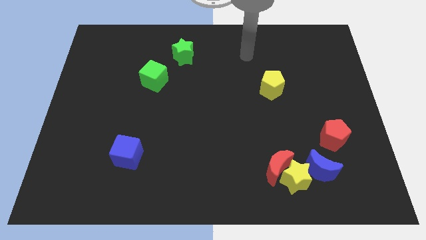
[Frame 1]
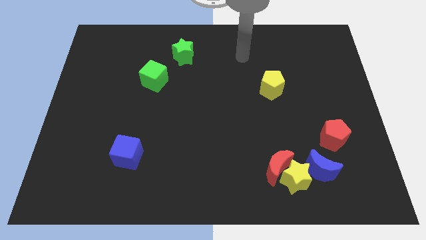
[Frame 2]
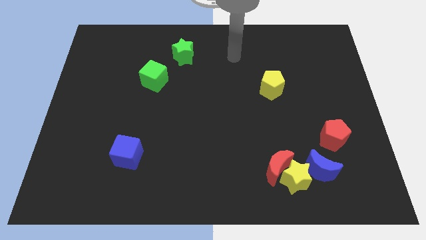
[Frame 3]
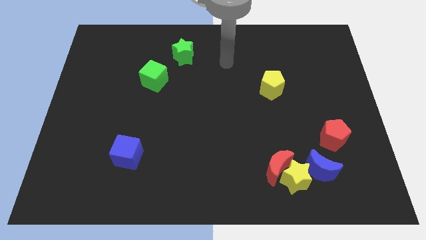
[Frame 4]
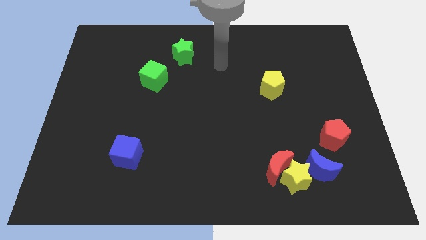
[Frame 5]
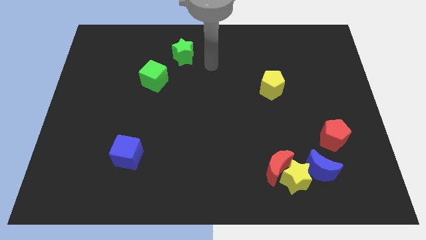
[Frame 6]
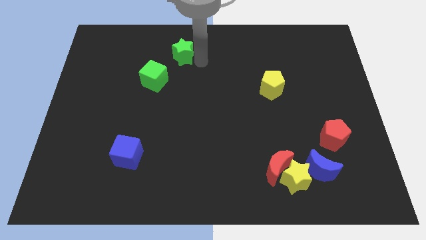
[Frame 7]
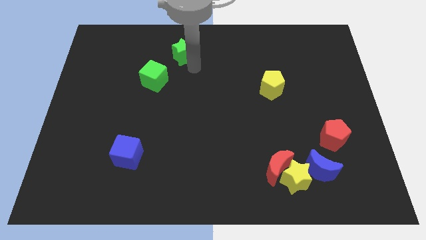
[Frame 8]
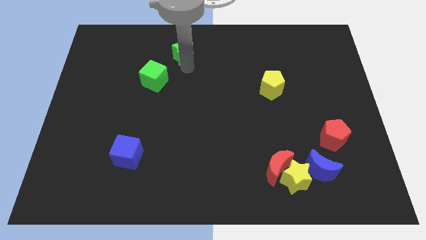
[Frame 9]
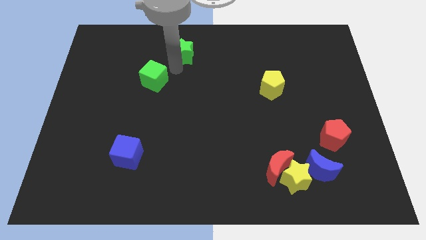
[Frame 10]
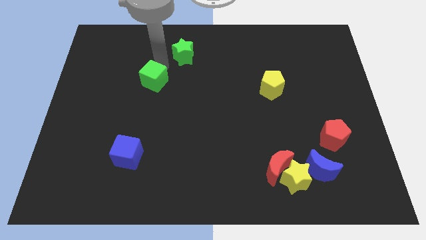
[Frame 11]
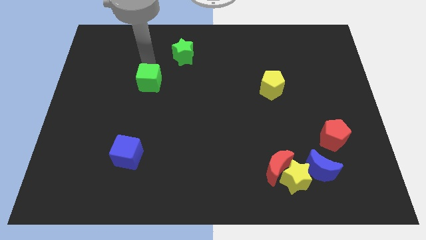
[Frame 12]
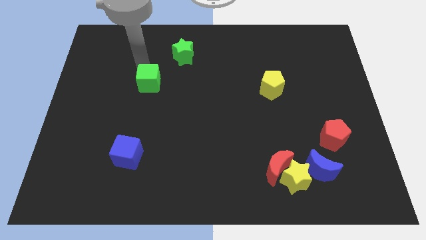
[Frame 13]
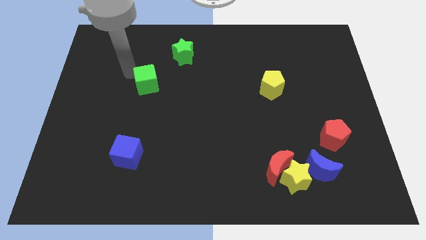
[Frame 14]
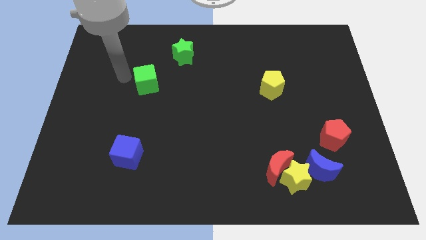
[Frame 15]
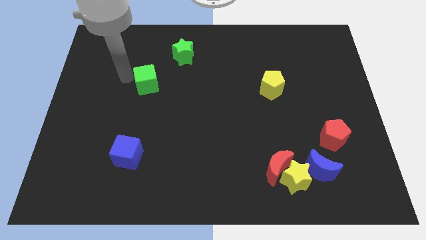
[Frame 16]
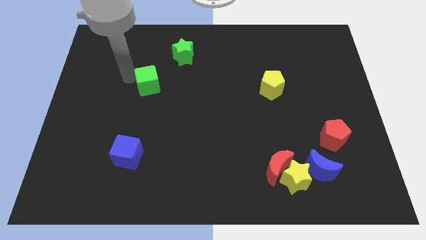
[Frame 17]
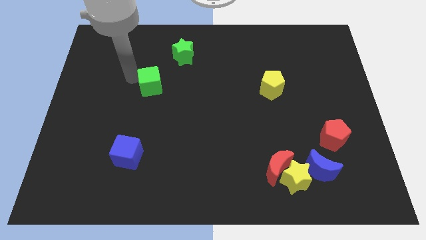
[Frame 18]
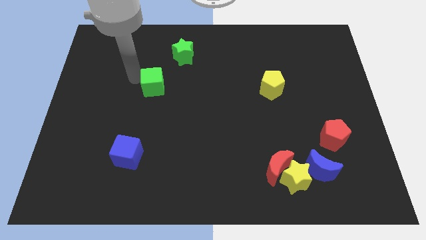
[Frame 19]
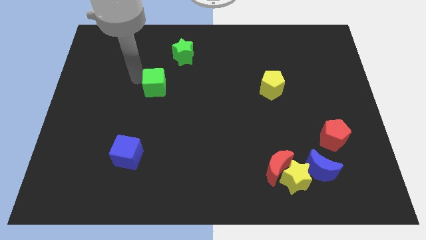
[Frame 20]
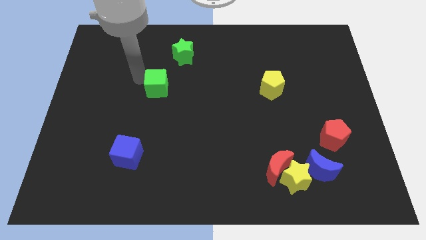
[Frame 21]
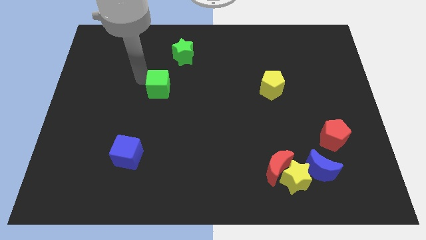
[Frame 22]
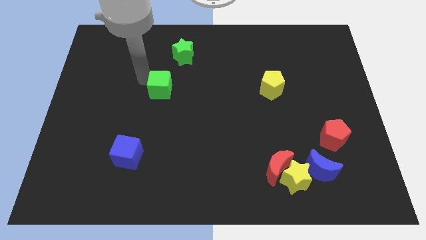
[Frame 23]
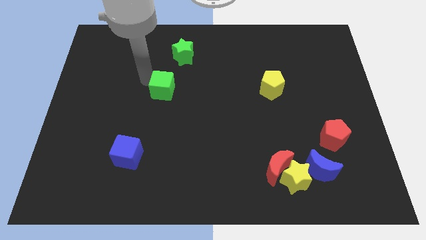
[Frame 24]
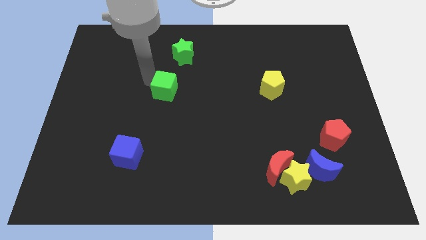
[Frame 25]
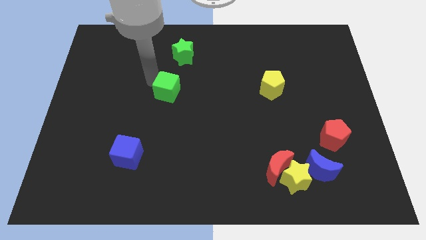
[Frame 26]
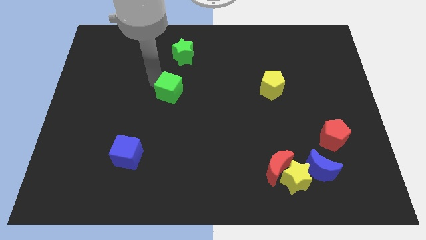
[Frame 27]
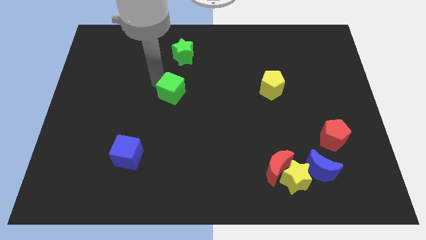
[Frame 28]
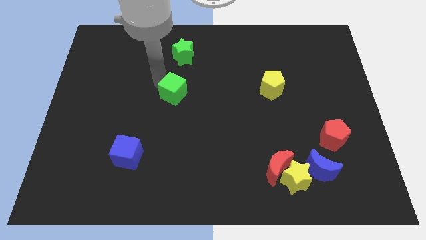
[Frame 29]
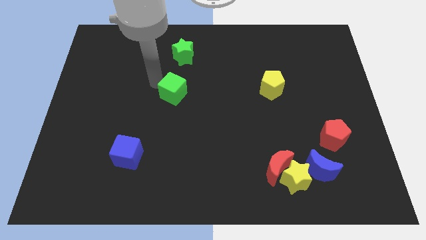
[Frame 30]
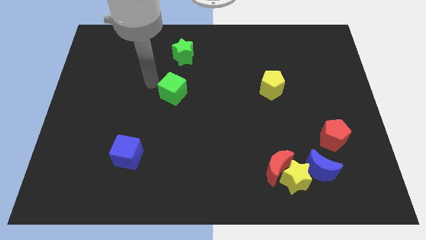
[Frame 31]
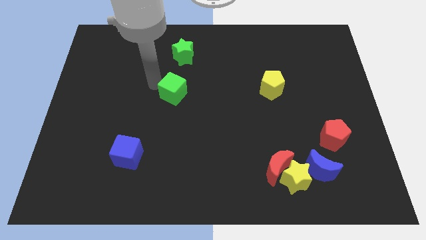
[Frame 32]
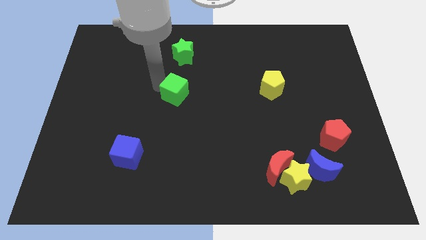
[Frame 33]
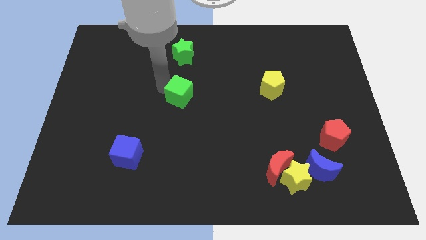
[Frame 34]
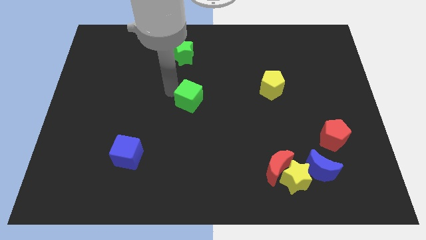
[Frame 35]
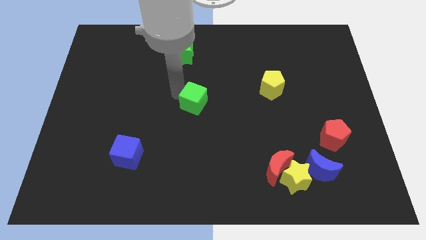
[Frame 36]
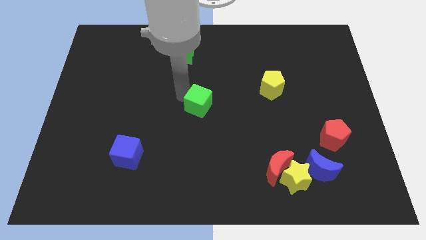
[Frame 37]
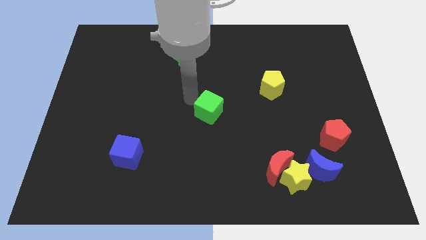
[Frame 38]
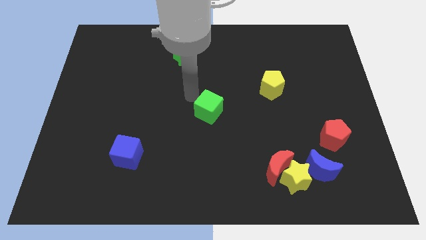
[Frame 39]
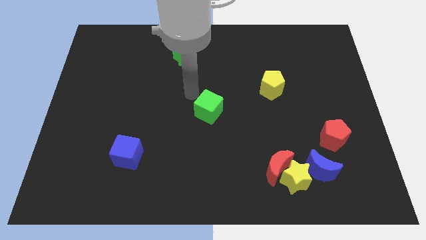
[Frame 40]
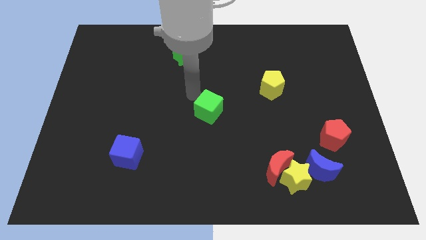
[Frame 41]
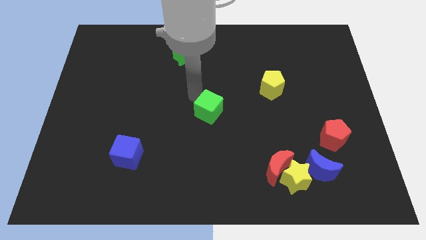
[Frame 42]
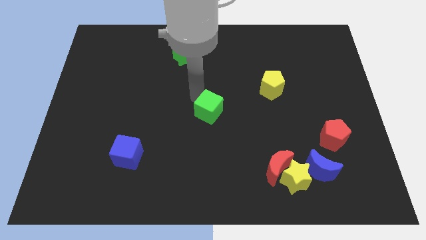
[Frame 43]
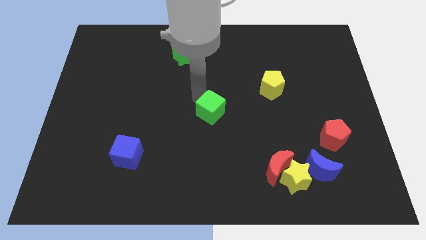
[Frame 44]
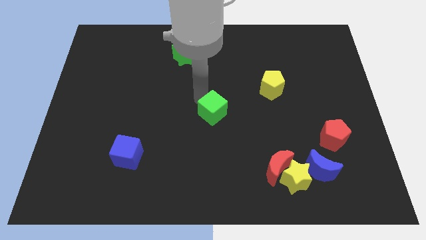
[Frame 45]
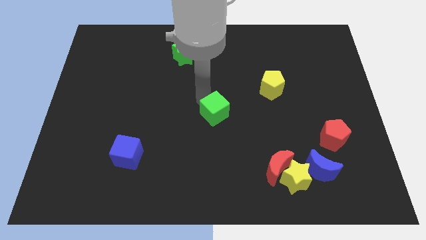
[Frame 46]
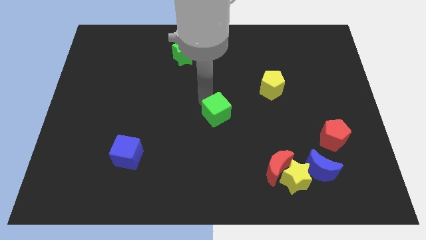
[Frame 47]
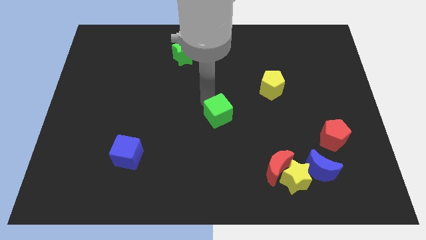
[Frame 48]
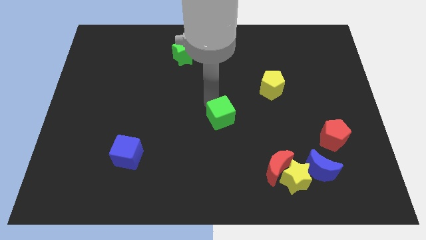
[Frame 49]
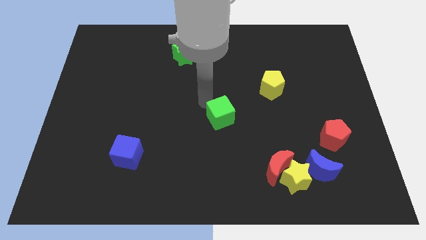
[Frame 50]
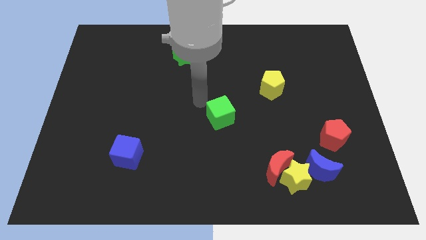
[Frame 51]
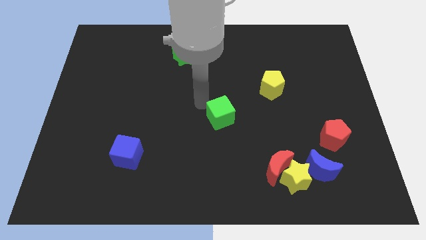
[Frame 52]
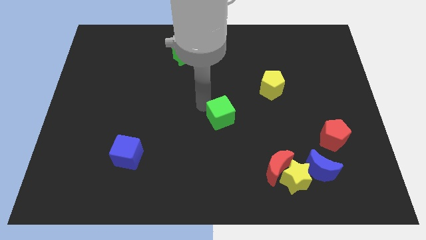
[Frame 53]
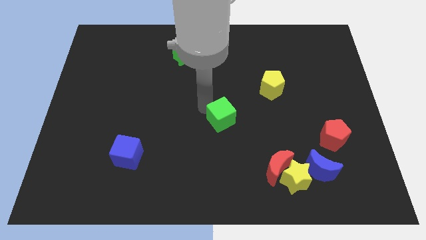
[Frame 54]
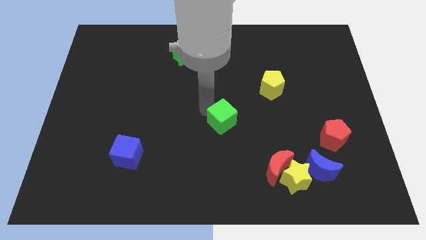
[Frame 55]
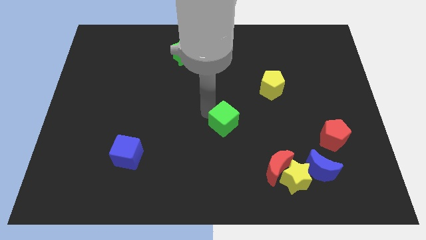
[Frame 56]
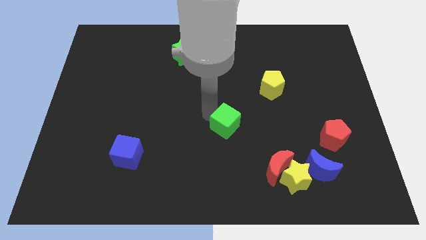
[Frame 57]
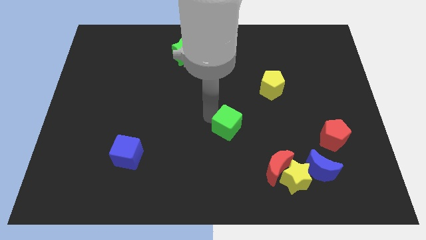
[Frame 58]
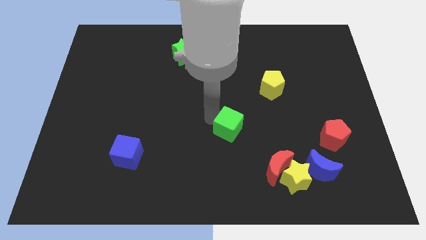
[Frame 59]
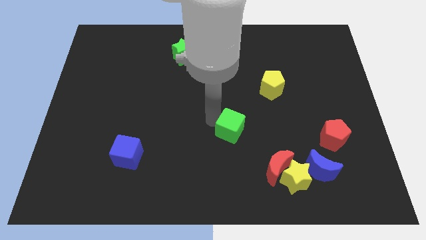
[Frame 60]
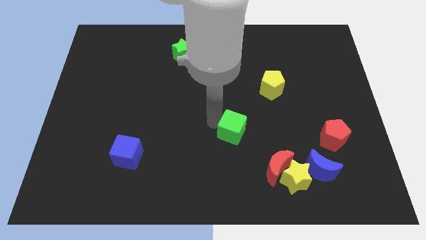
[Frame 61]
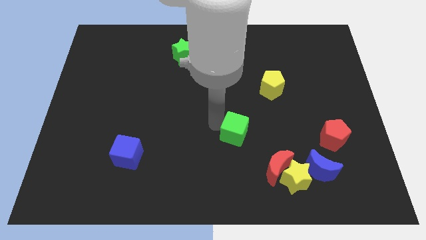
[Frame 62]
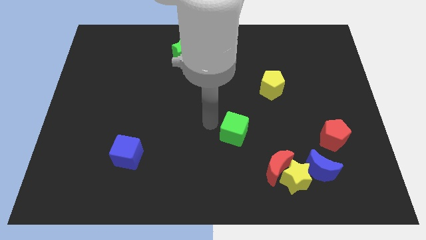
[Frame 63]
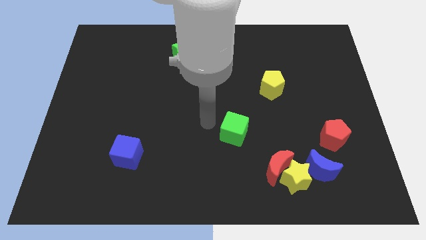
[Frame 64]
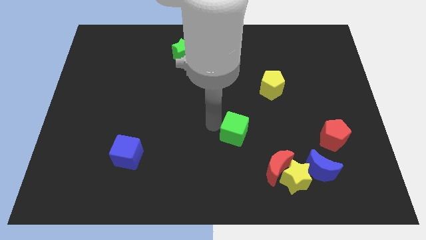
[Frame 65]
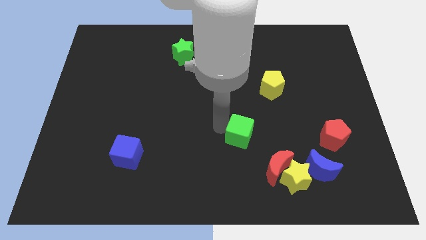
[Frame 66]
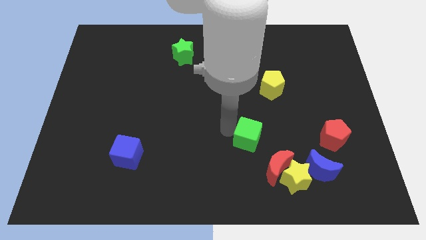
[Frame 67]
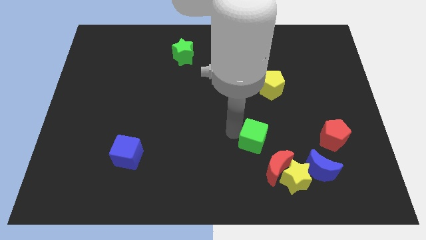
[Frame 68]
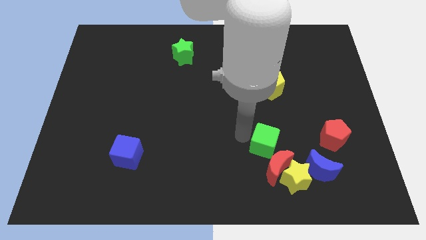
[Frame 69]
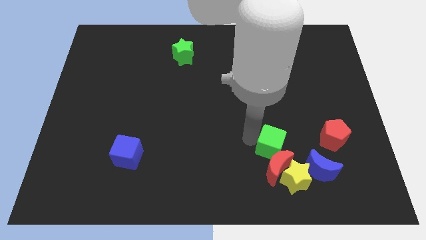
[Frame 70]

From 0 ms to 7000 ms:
slide the green cube to the top left side of the blue moon
